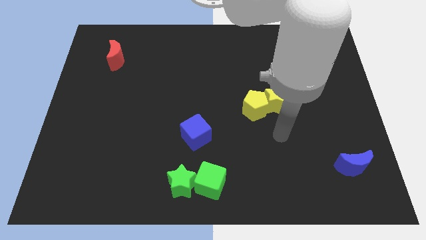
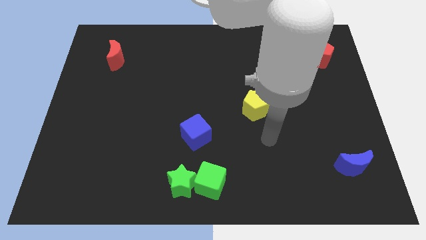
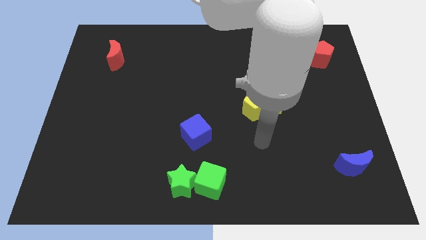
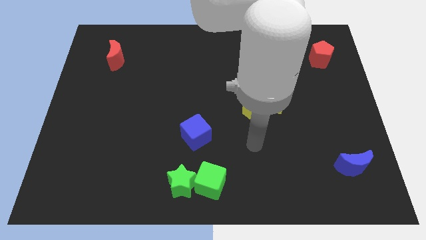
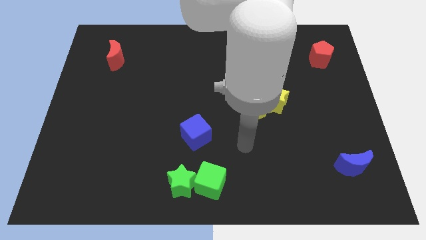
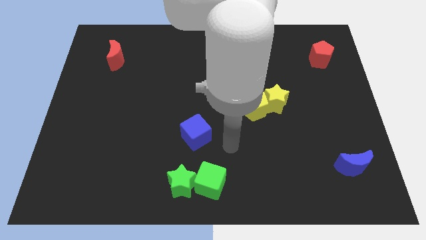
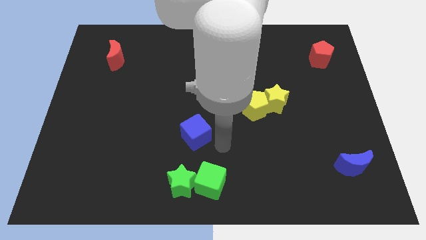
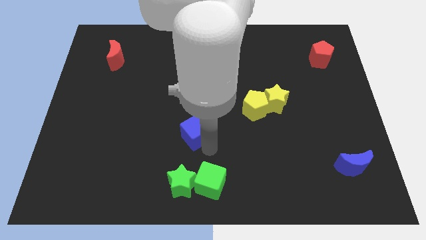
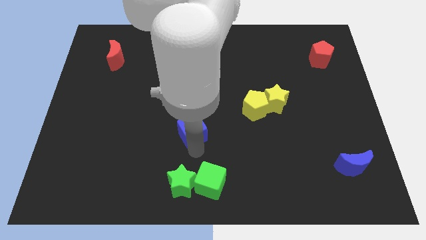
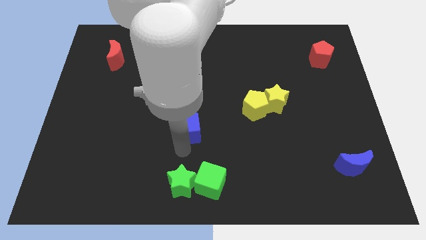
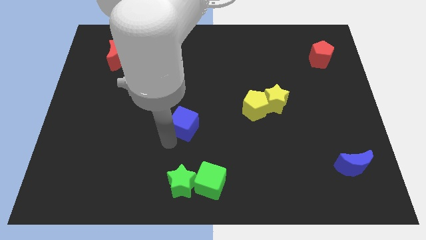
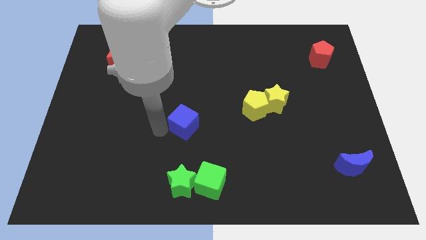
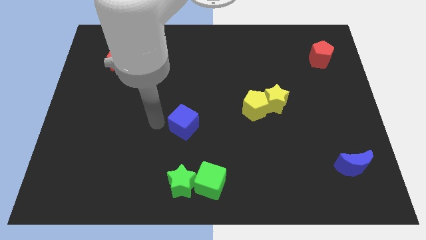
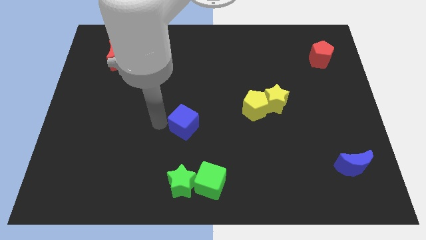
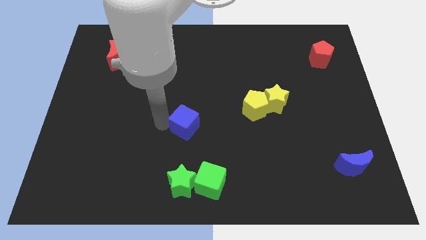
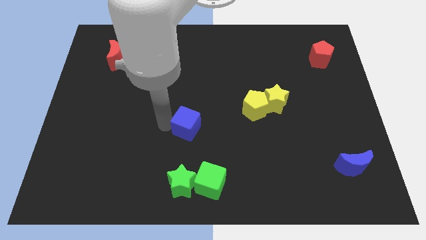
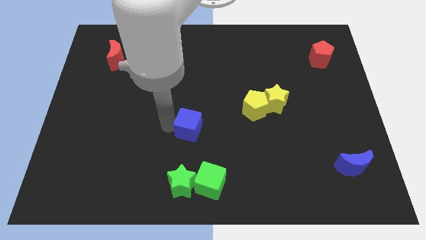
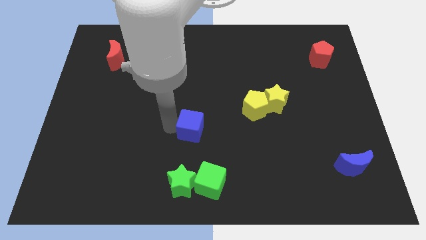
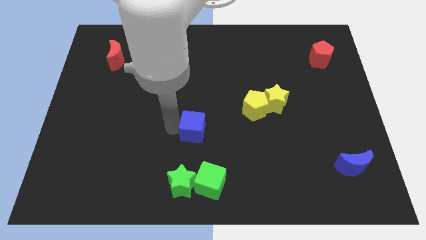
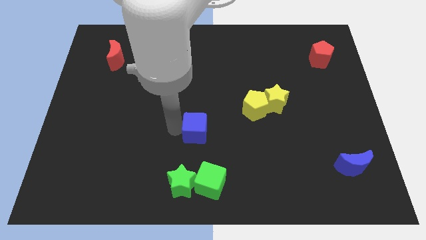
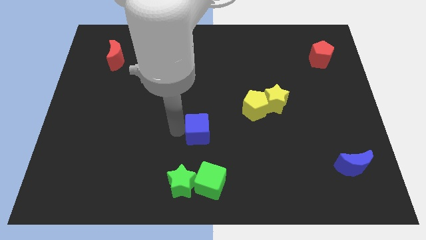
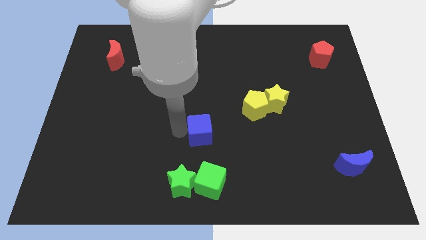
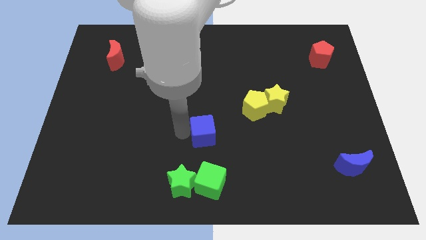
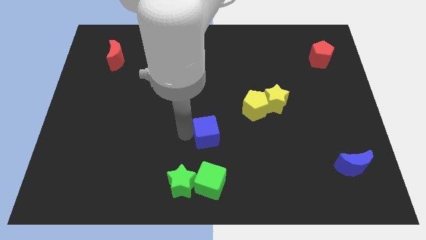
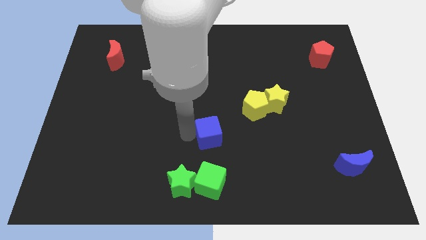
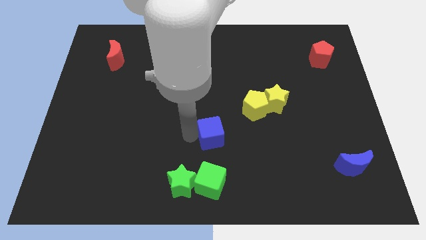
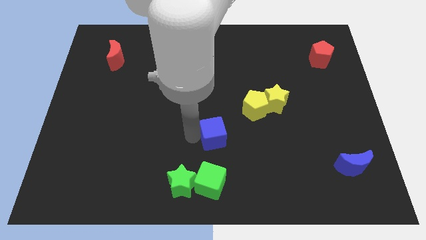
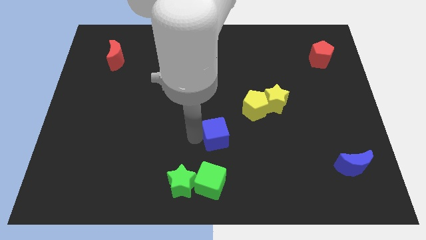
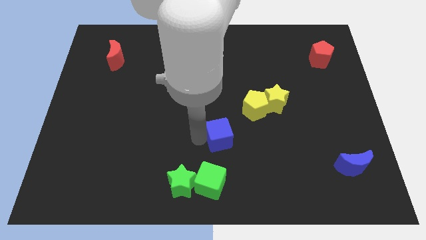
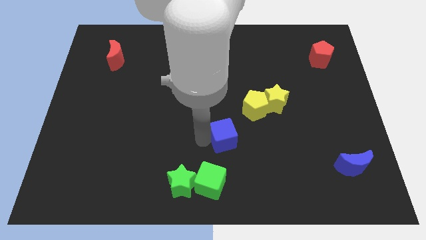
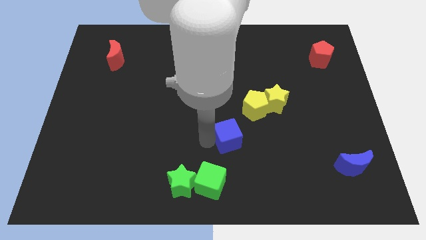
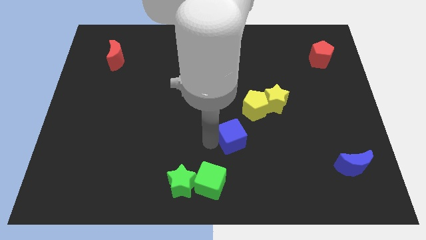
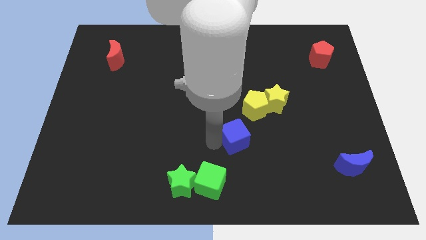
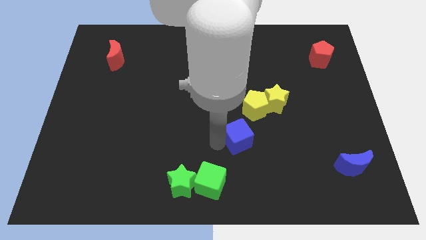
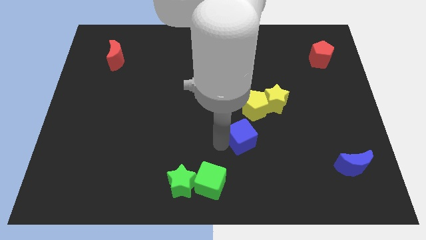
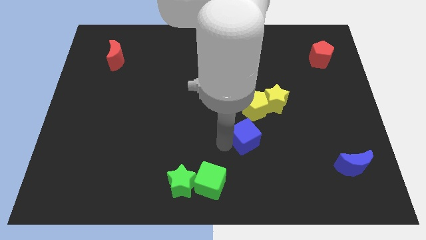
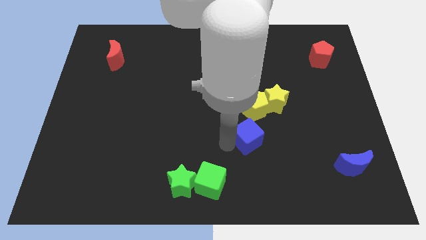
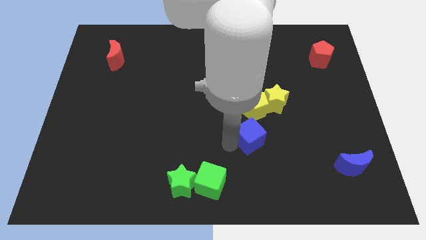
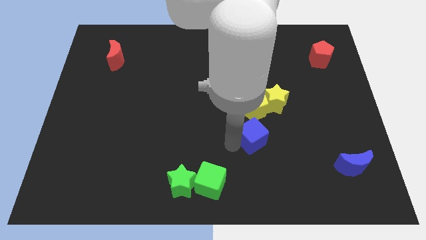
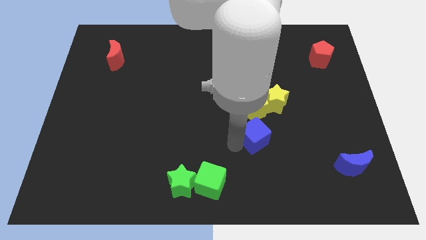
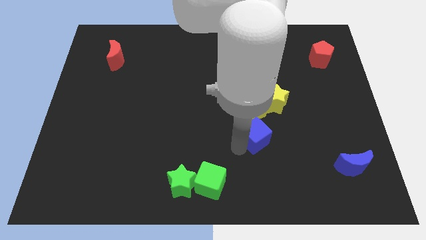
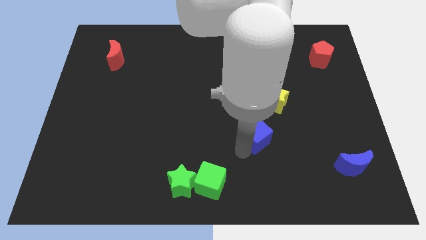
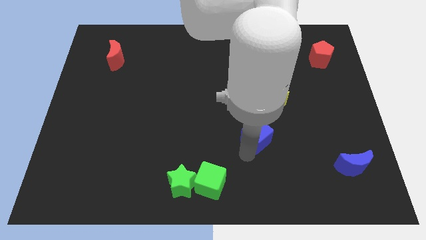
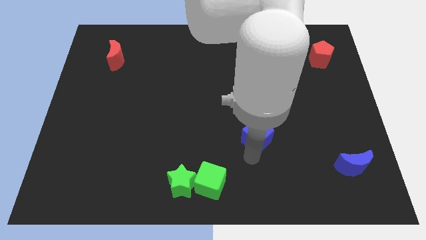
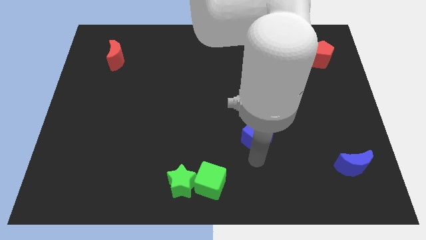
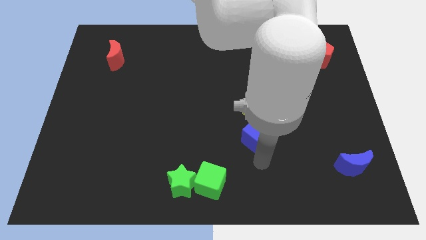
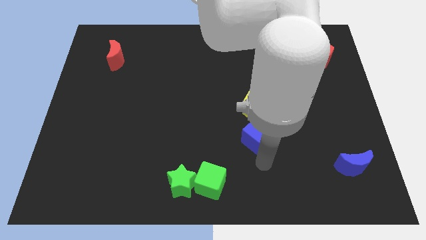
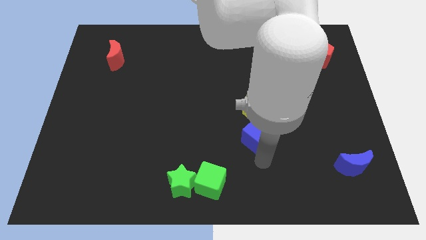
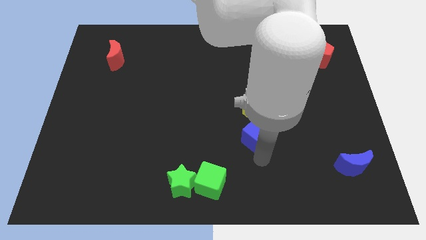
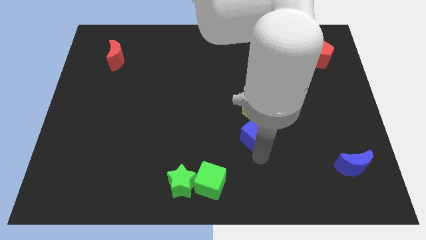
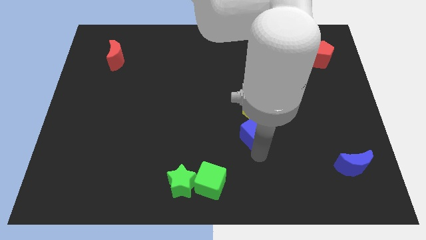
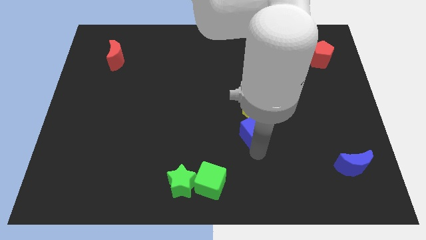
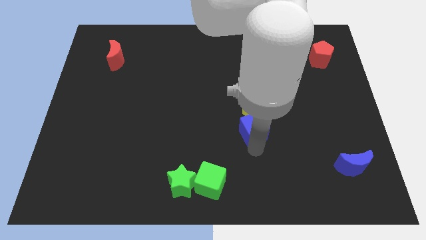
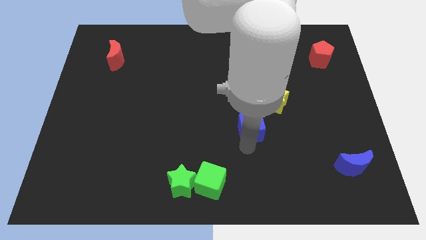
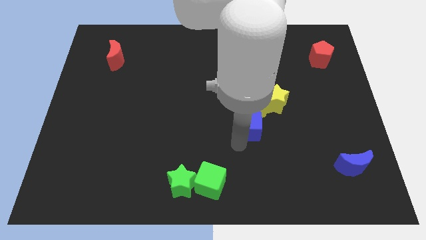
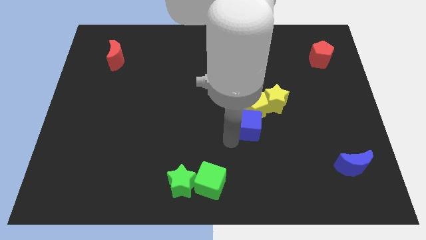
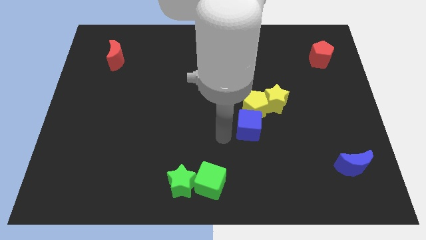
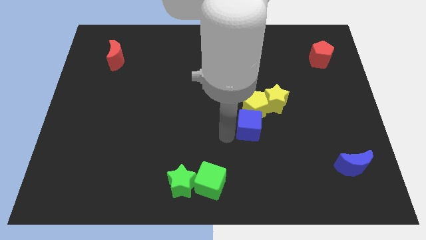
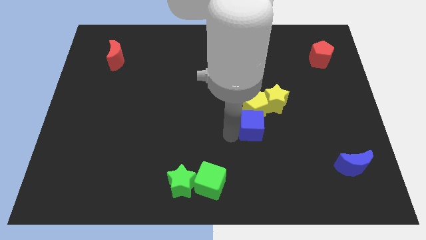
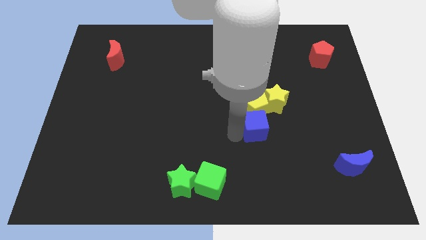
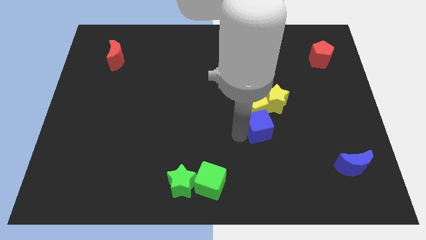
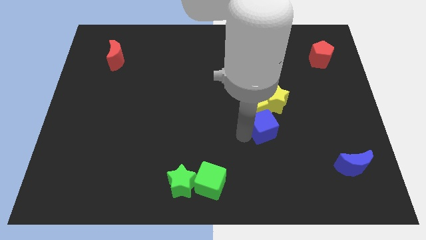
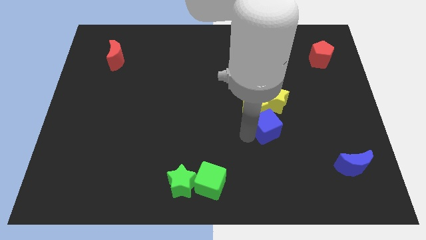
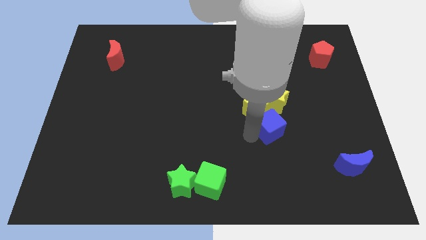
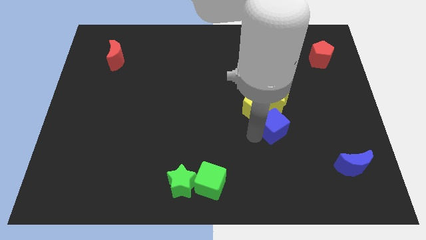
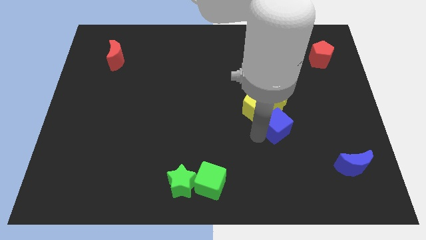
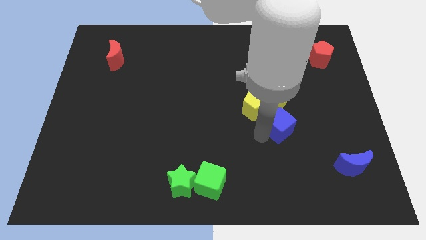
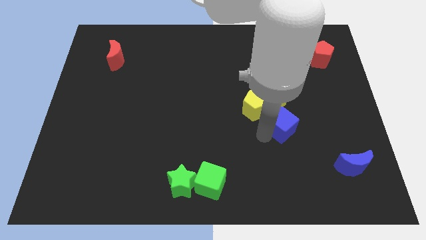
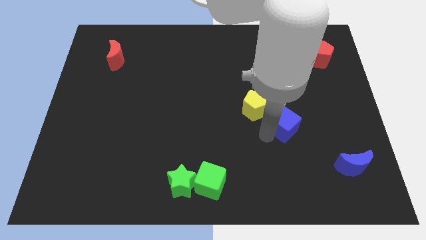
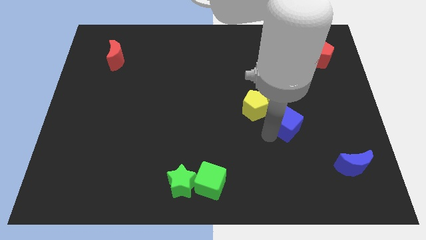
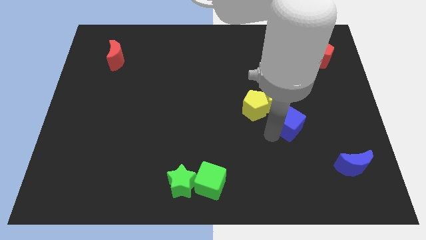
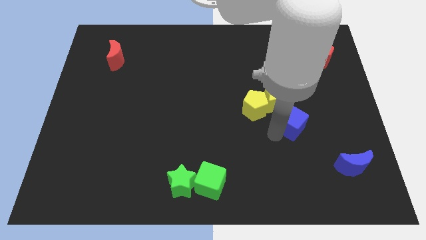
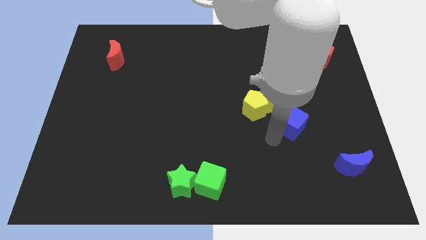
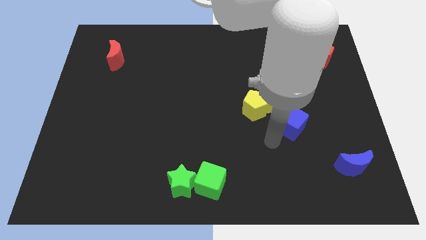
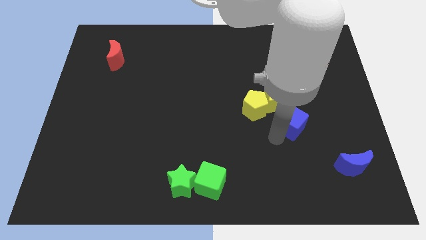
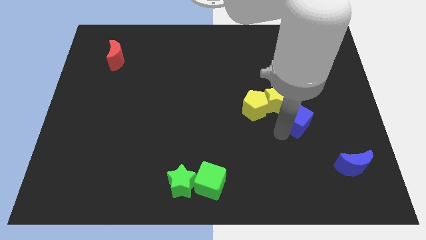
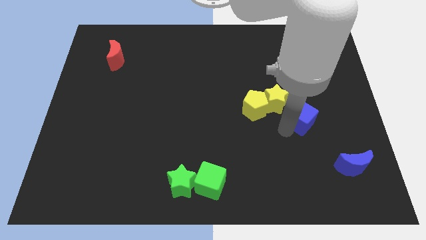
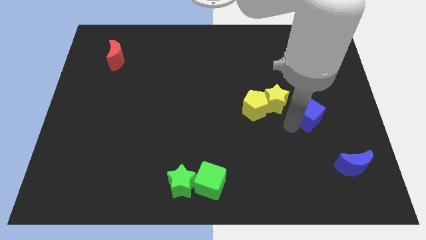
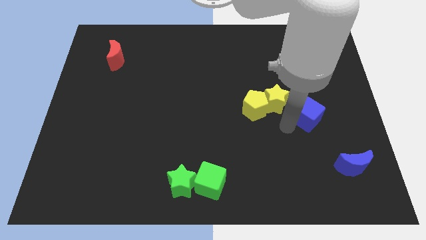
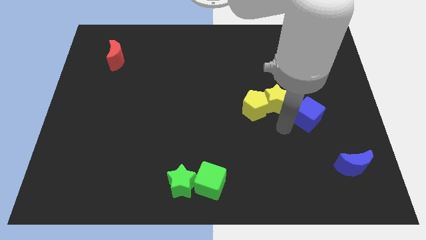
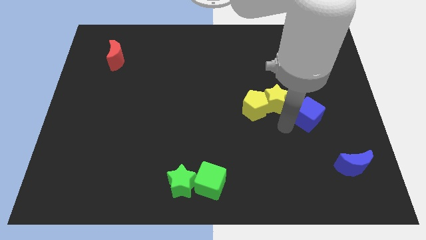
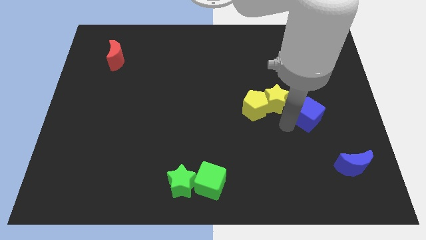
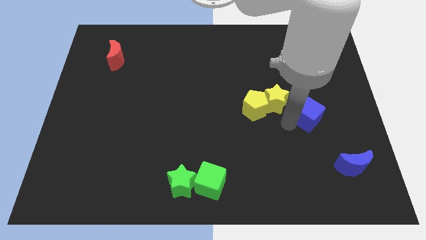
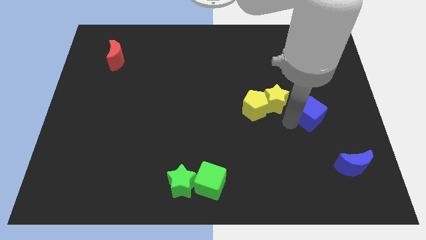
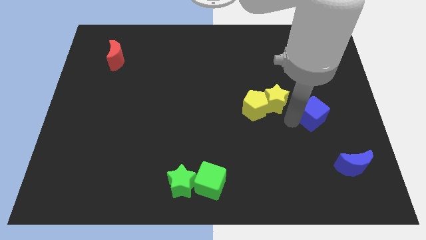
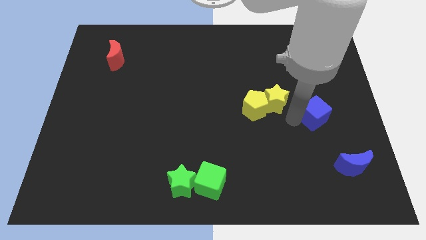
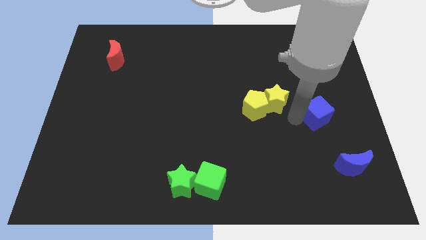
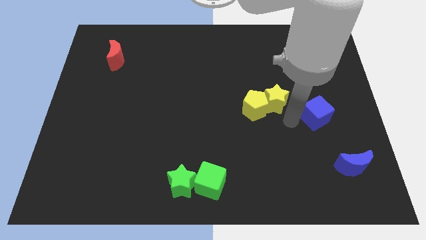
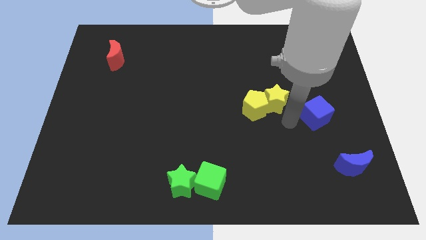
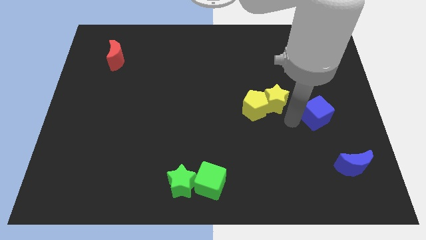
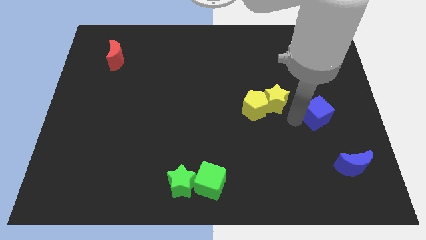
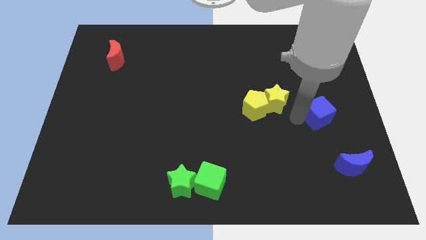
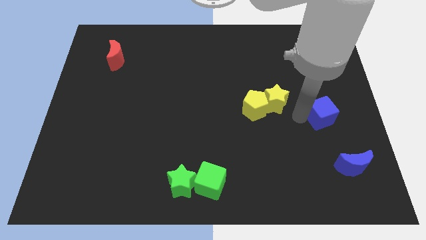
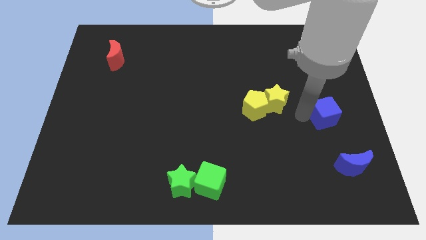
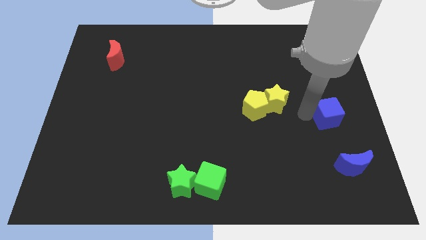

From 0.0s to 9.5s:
push the blue cube to the center right
